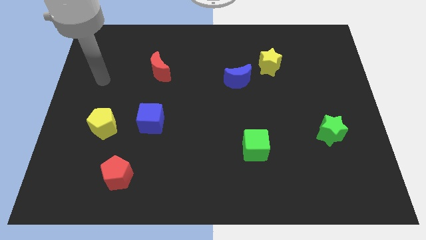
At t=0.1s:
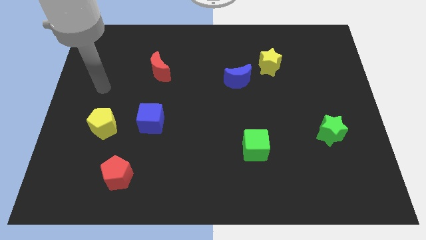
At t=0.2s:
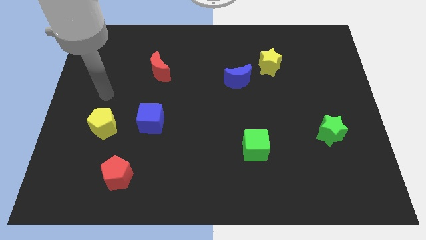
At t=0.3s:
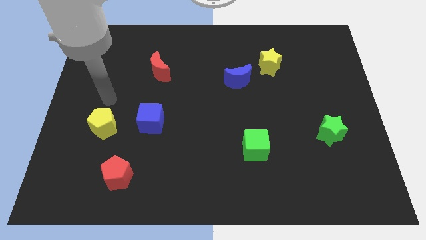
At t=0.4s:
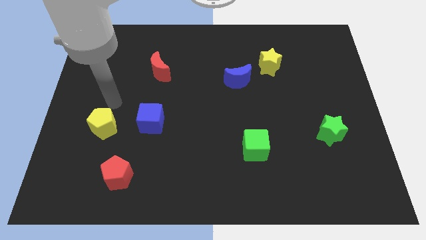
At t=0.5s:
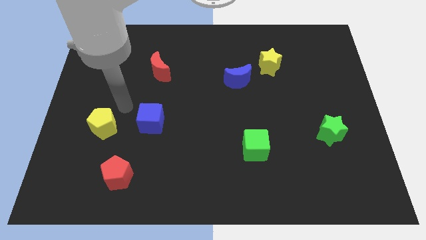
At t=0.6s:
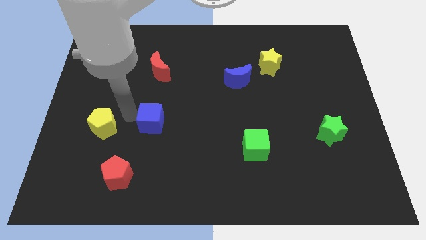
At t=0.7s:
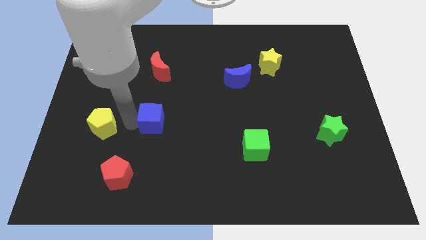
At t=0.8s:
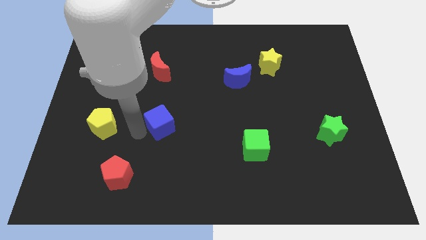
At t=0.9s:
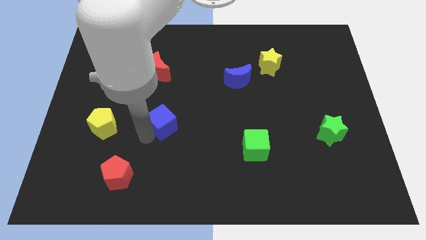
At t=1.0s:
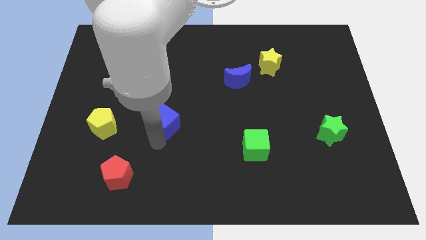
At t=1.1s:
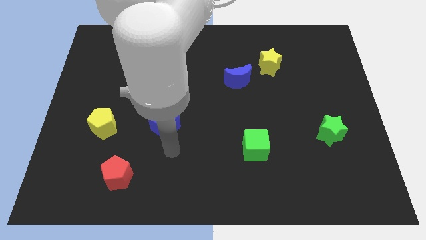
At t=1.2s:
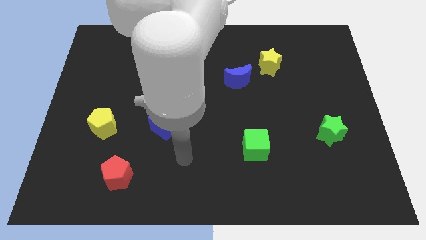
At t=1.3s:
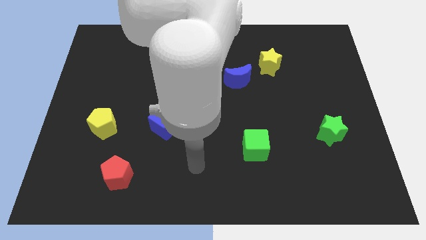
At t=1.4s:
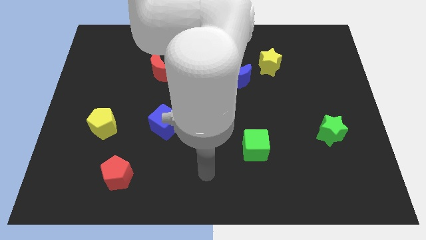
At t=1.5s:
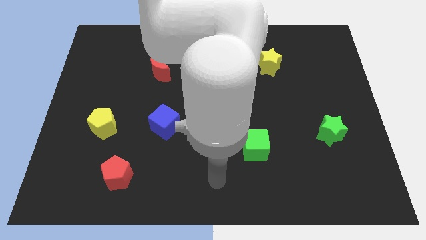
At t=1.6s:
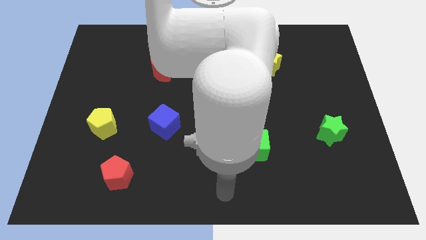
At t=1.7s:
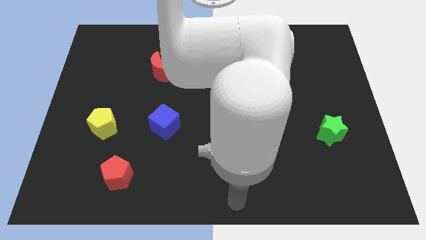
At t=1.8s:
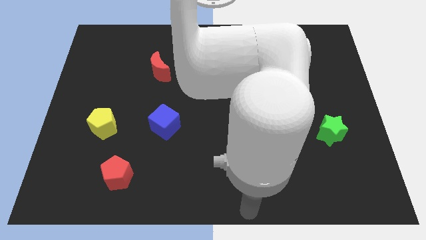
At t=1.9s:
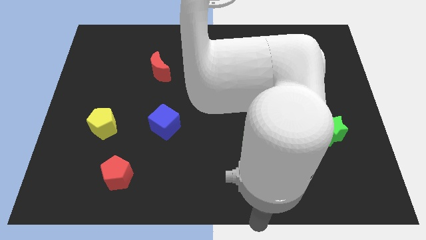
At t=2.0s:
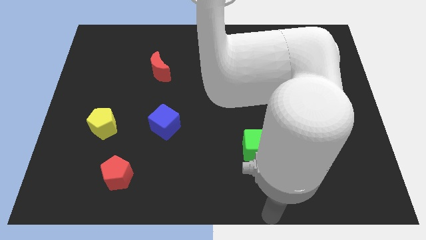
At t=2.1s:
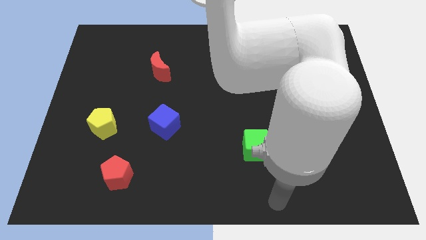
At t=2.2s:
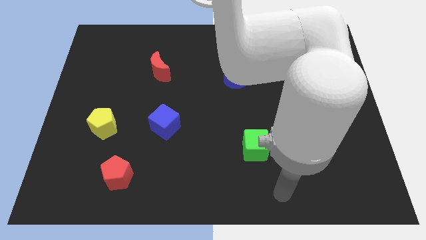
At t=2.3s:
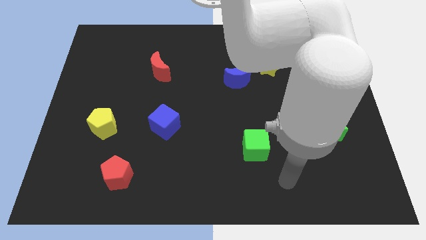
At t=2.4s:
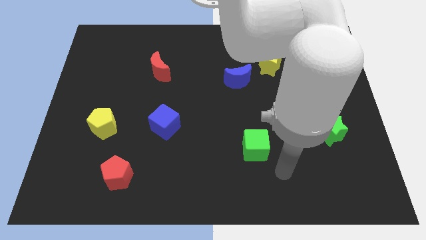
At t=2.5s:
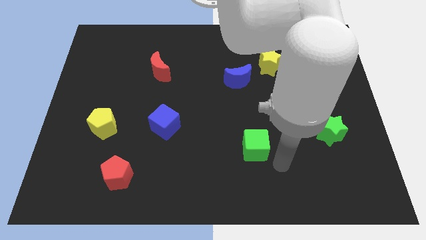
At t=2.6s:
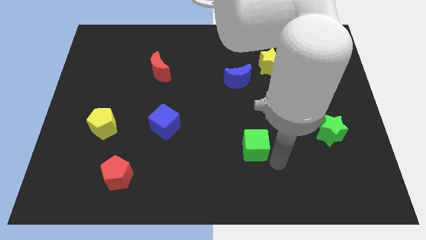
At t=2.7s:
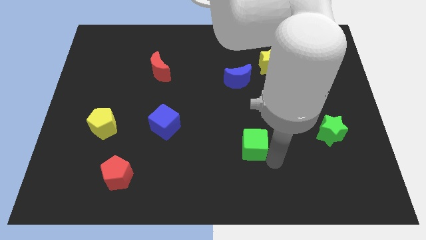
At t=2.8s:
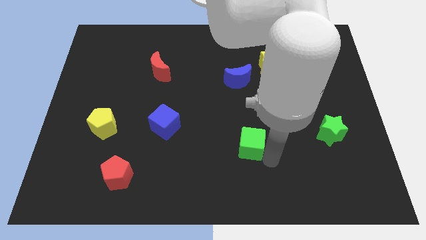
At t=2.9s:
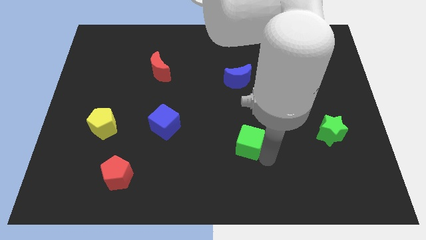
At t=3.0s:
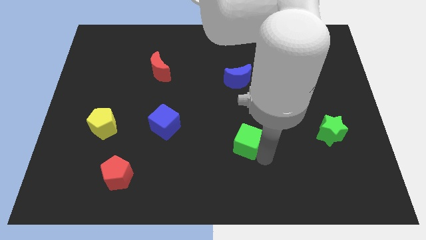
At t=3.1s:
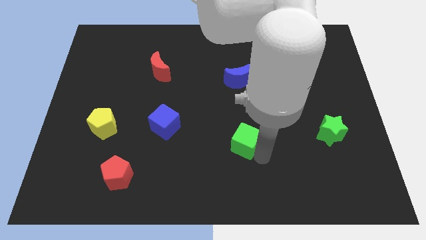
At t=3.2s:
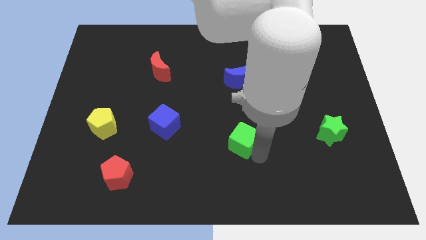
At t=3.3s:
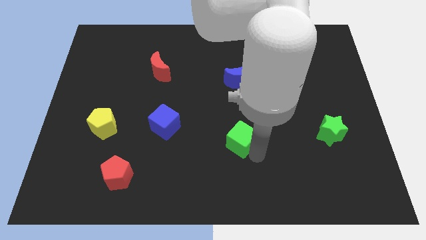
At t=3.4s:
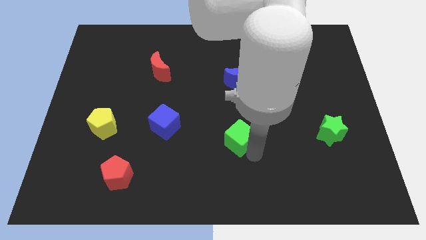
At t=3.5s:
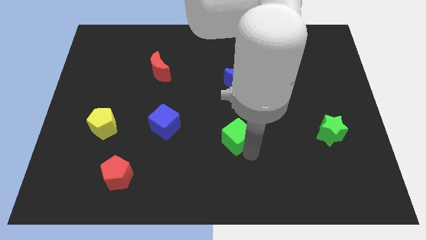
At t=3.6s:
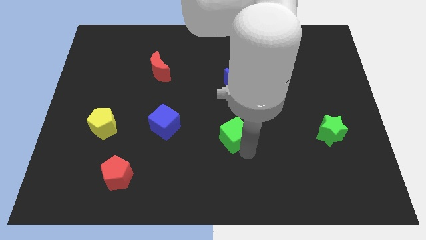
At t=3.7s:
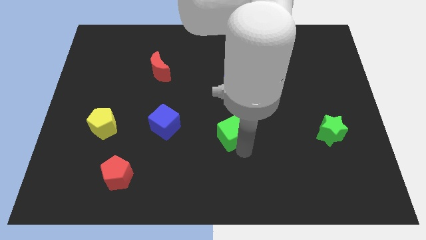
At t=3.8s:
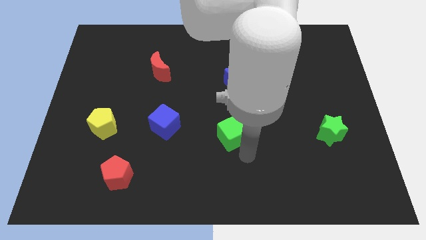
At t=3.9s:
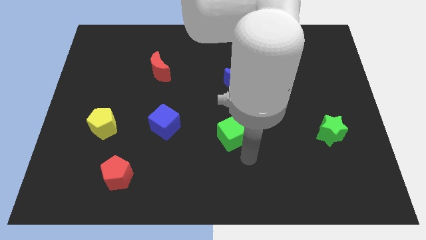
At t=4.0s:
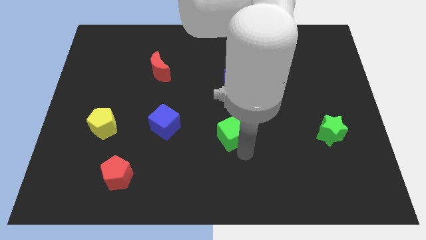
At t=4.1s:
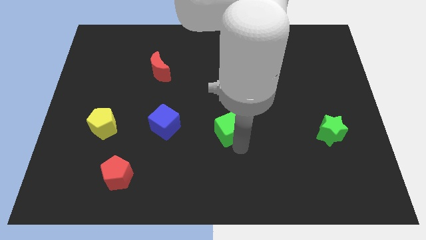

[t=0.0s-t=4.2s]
slide the green cube upwards and left a bit

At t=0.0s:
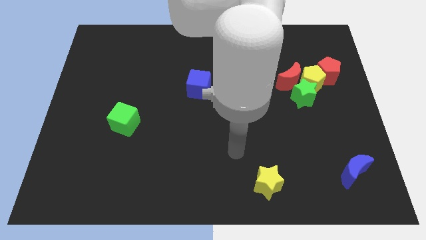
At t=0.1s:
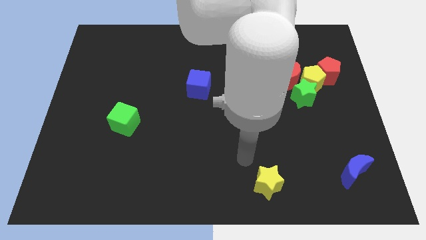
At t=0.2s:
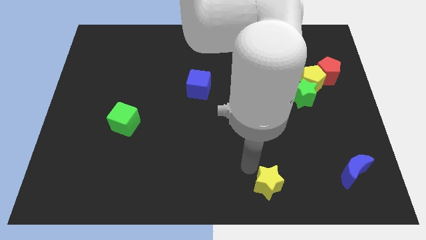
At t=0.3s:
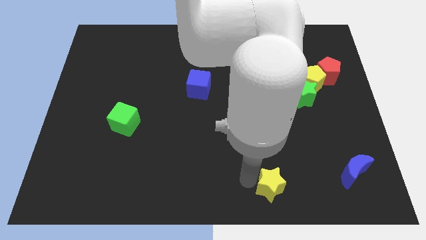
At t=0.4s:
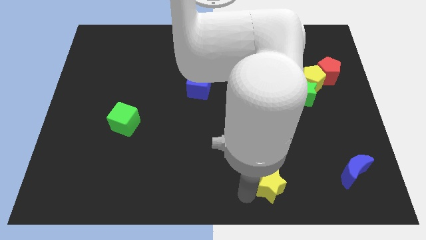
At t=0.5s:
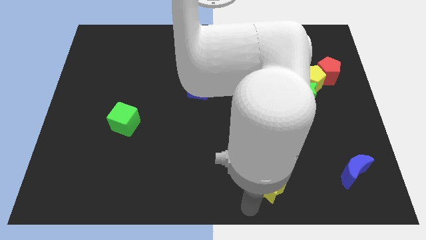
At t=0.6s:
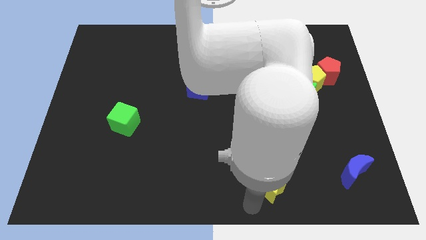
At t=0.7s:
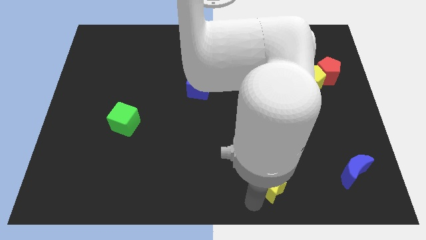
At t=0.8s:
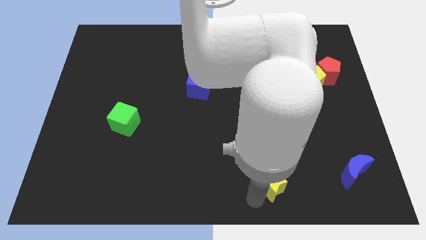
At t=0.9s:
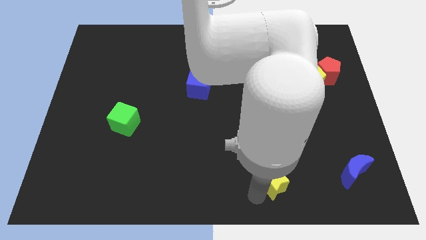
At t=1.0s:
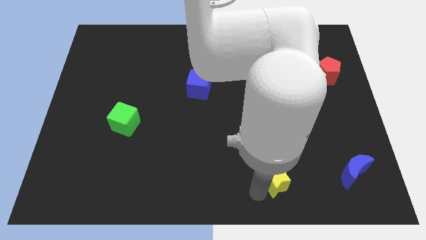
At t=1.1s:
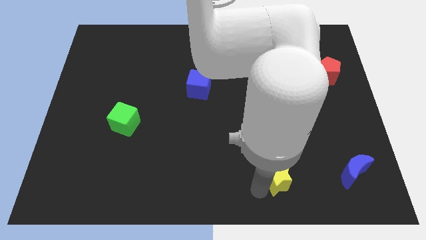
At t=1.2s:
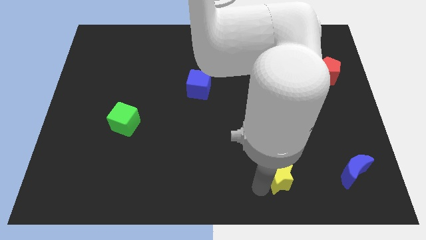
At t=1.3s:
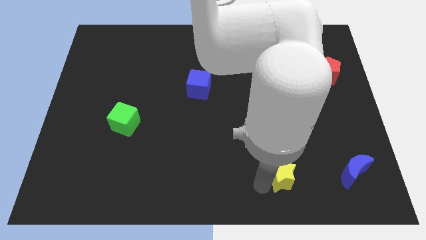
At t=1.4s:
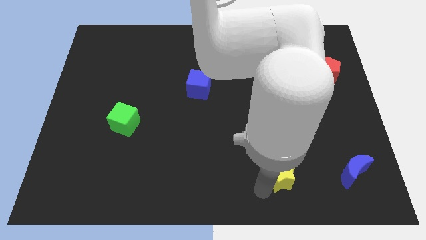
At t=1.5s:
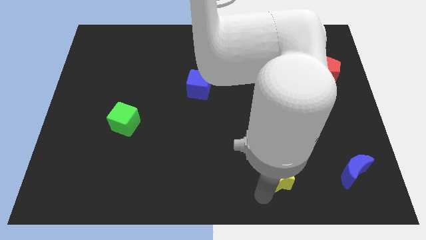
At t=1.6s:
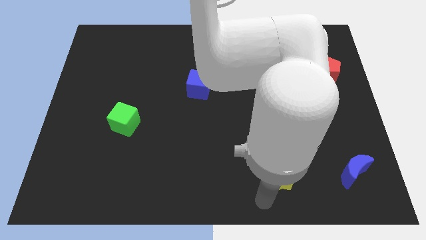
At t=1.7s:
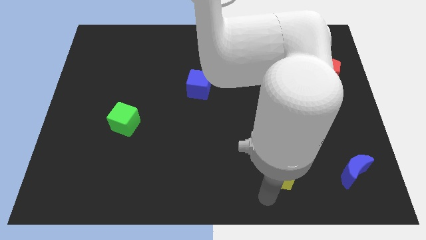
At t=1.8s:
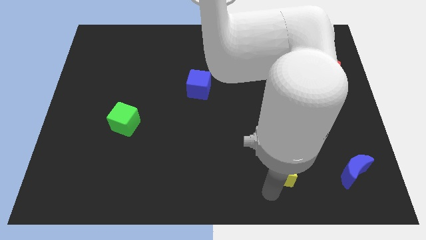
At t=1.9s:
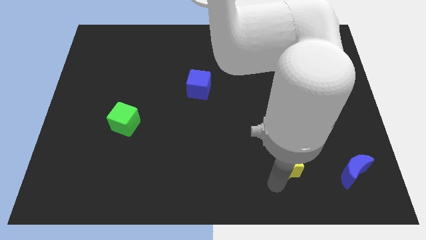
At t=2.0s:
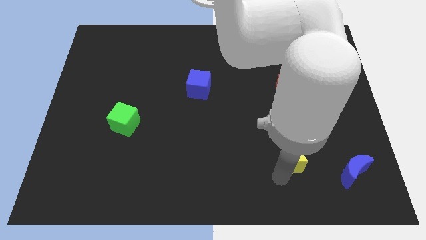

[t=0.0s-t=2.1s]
move the yellow star diagonally up and to the right somewhat

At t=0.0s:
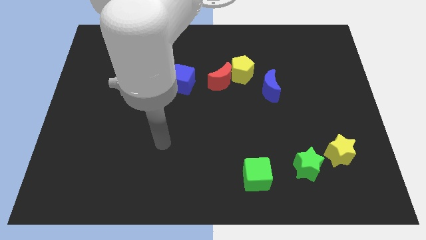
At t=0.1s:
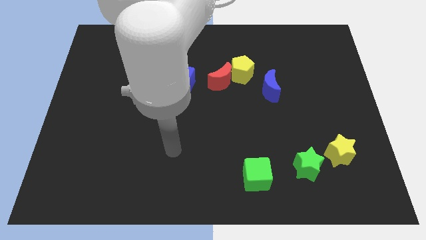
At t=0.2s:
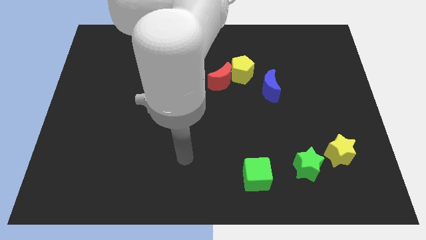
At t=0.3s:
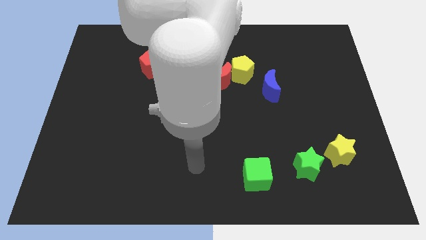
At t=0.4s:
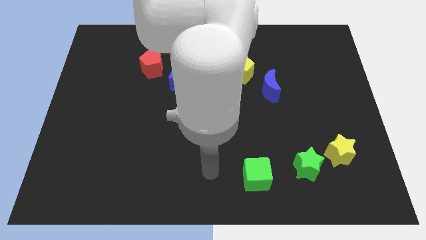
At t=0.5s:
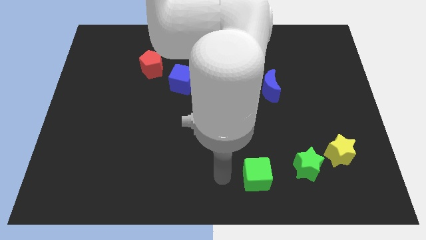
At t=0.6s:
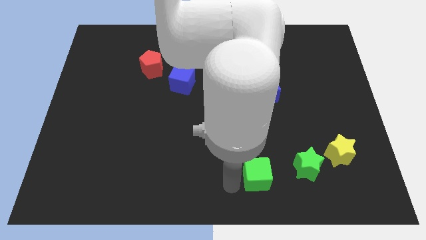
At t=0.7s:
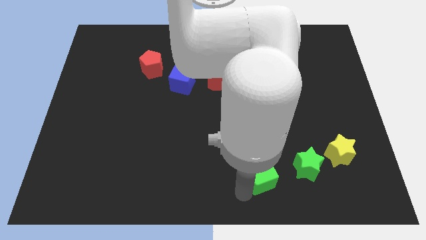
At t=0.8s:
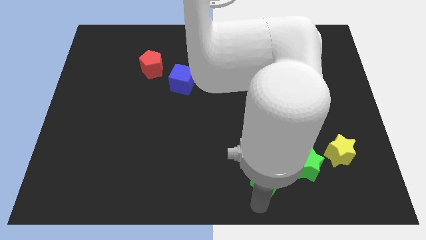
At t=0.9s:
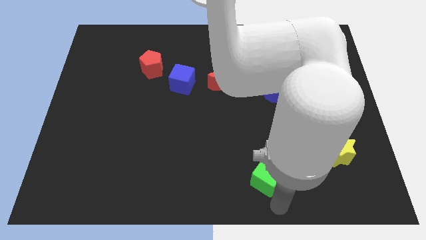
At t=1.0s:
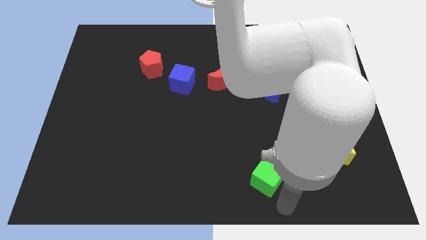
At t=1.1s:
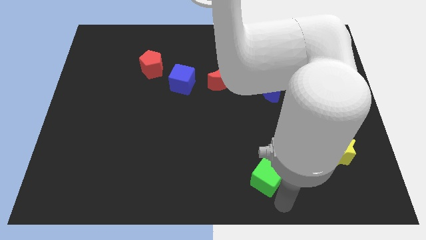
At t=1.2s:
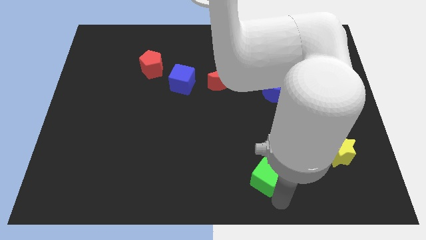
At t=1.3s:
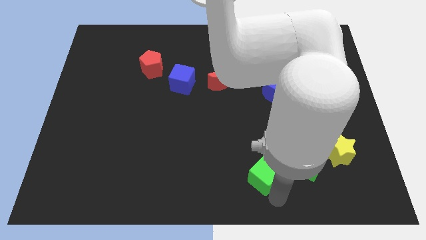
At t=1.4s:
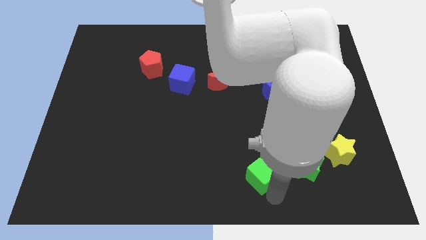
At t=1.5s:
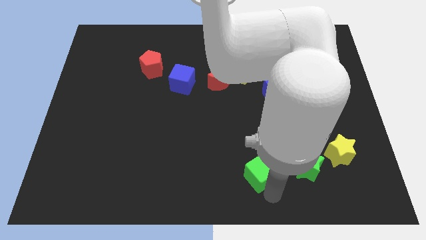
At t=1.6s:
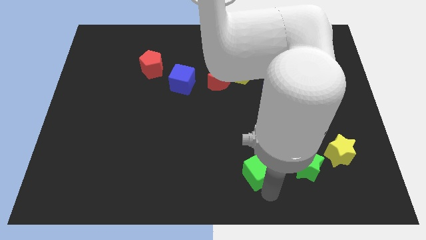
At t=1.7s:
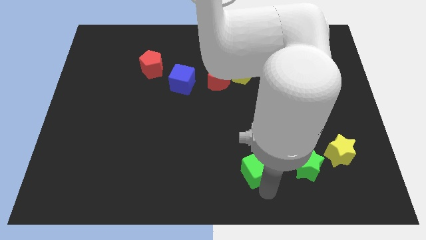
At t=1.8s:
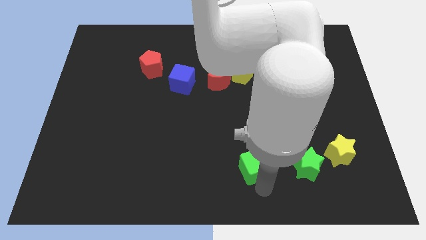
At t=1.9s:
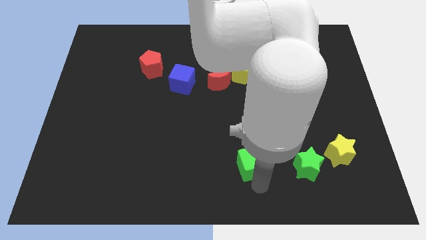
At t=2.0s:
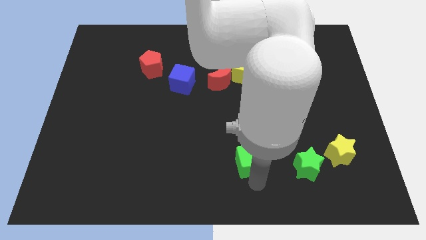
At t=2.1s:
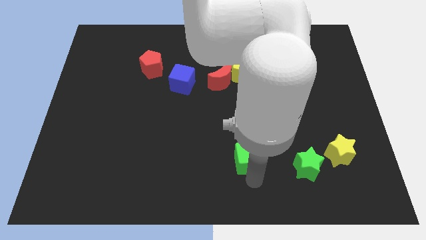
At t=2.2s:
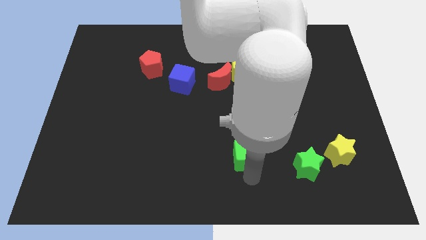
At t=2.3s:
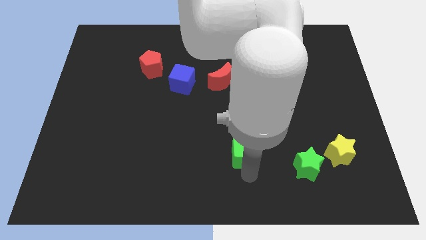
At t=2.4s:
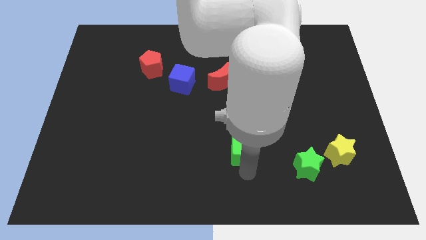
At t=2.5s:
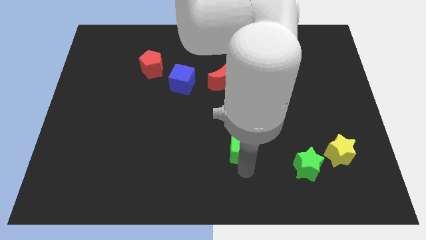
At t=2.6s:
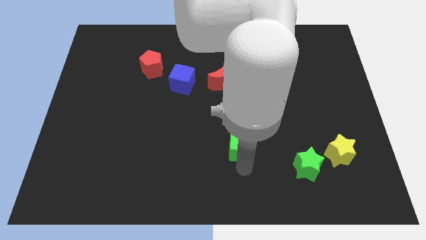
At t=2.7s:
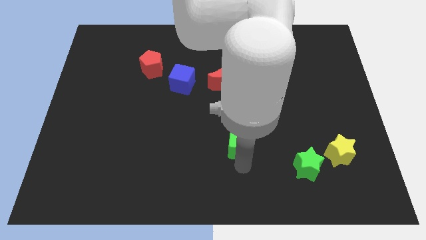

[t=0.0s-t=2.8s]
push the green cube up slightly
